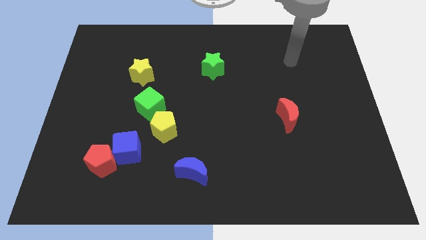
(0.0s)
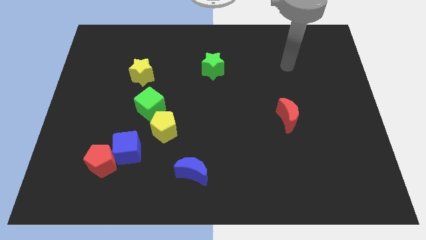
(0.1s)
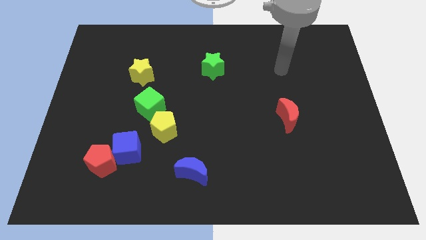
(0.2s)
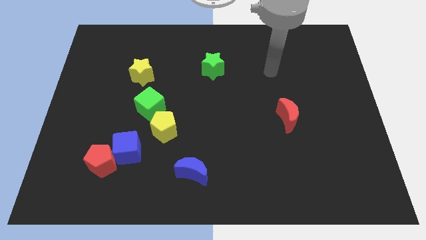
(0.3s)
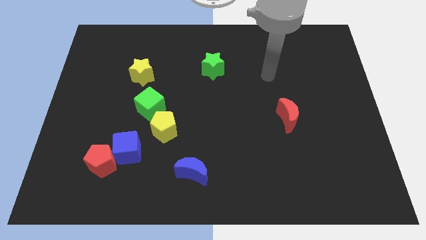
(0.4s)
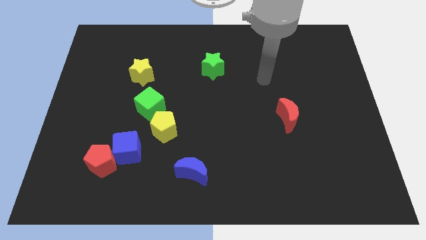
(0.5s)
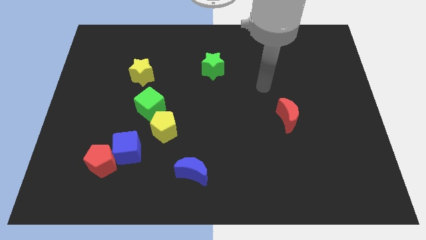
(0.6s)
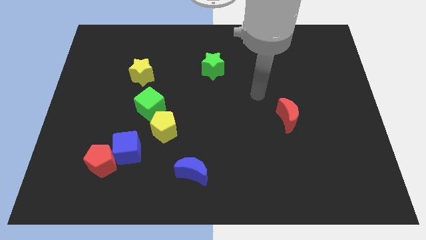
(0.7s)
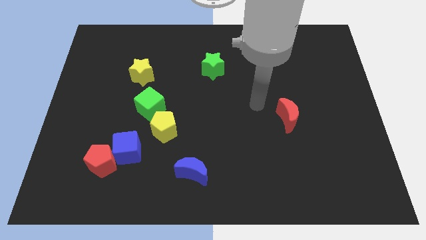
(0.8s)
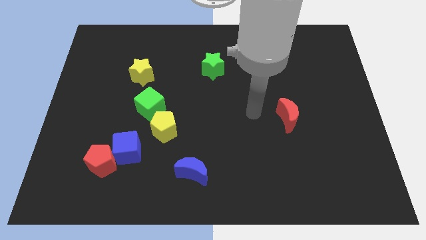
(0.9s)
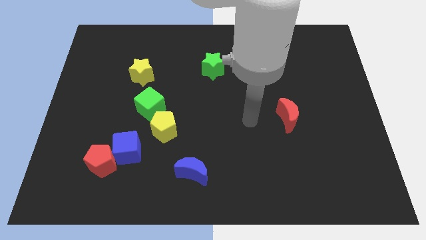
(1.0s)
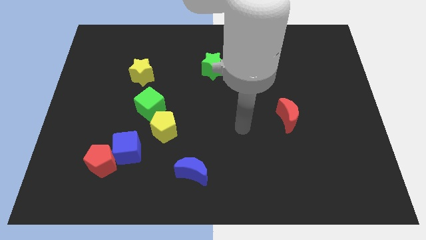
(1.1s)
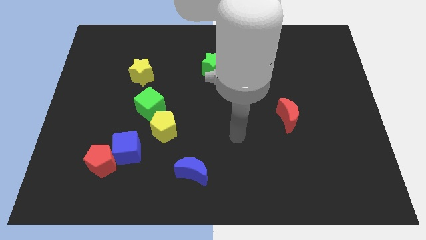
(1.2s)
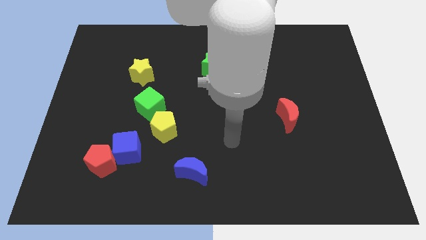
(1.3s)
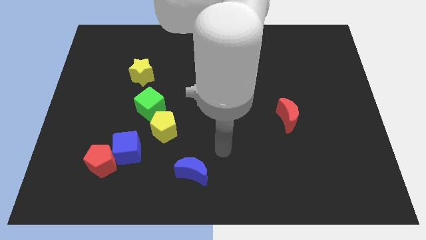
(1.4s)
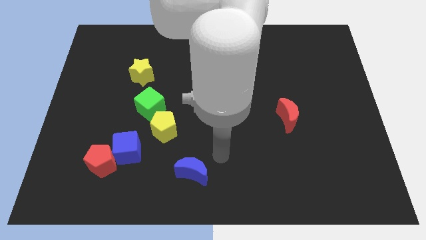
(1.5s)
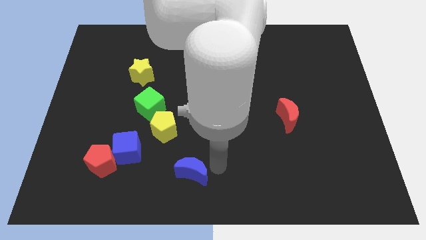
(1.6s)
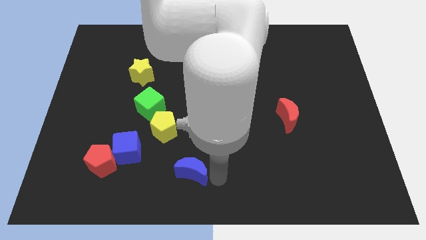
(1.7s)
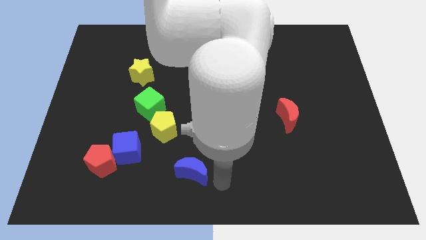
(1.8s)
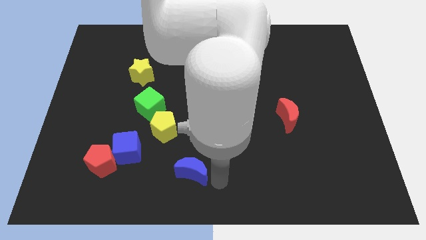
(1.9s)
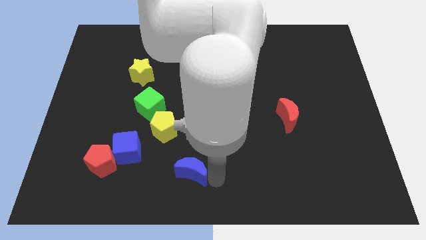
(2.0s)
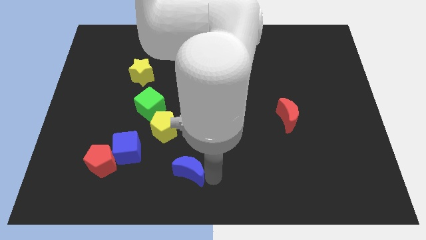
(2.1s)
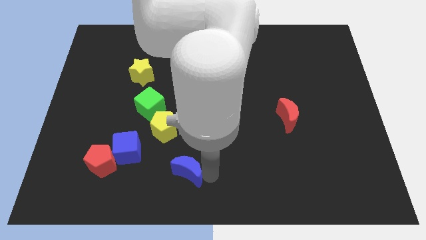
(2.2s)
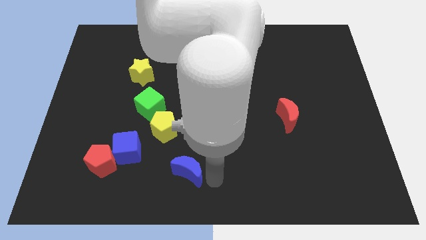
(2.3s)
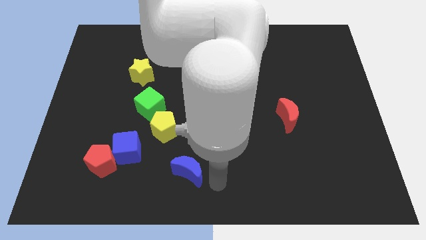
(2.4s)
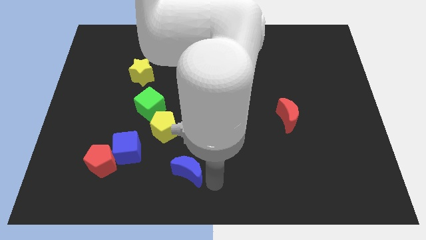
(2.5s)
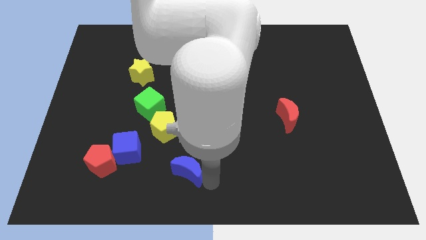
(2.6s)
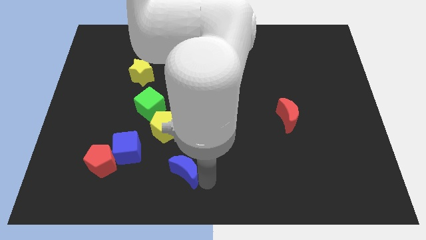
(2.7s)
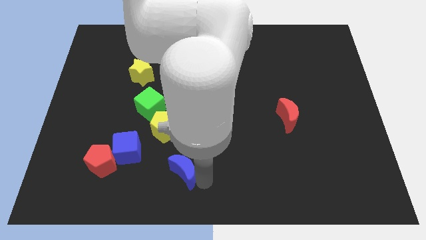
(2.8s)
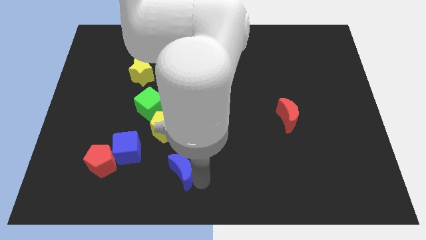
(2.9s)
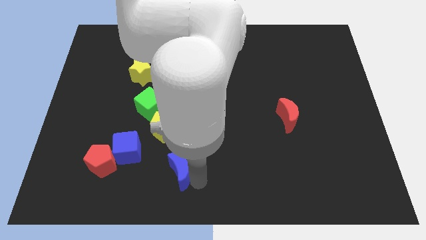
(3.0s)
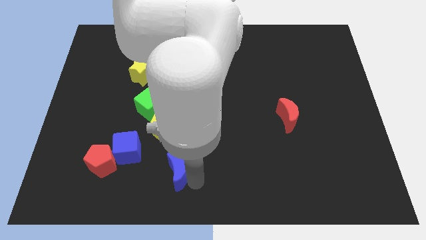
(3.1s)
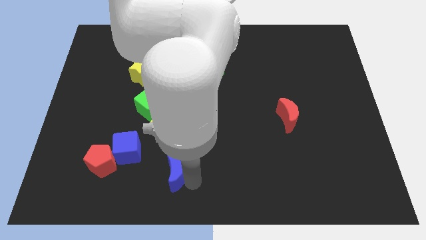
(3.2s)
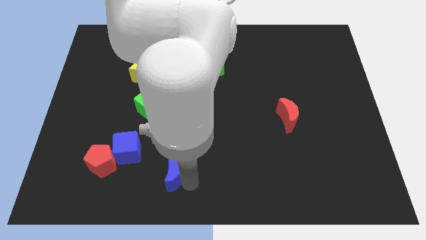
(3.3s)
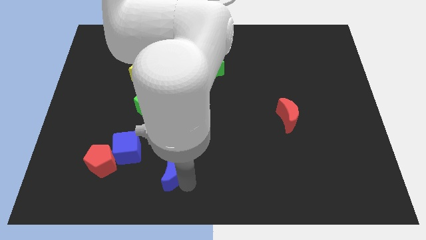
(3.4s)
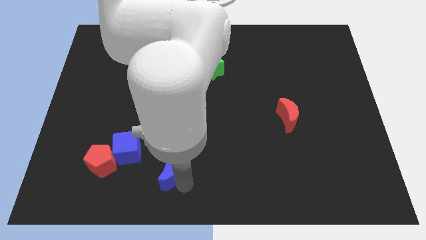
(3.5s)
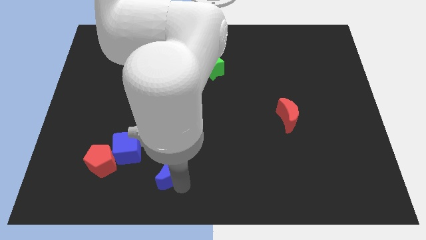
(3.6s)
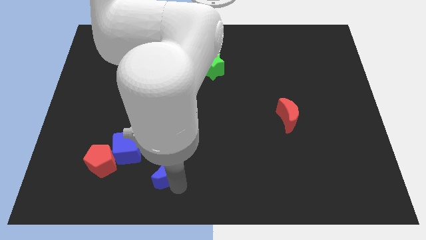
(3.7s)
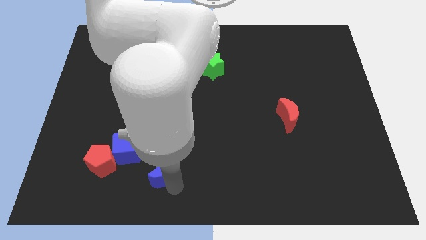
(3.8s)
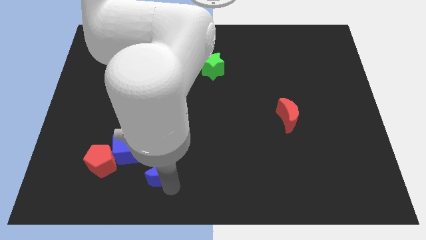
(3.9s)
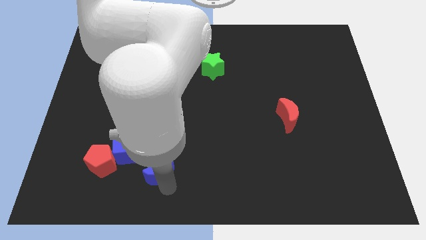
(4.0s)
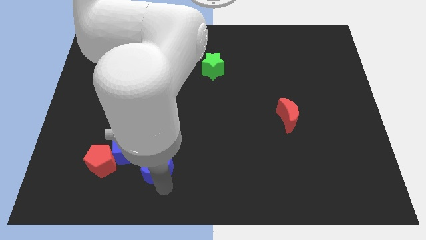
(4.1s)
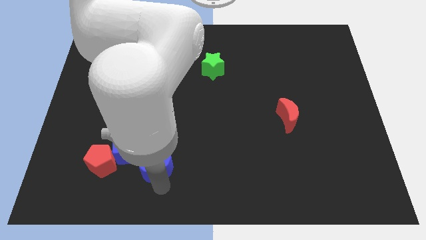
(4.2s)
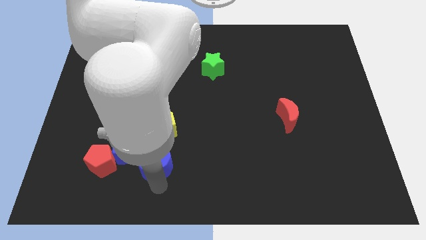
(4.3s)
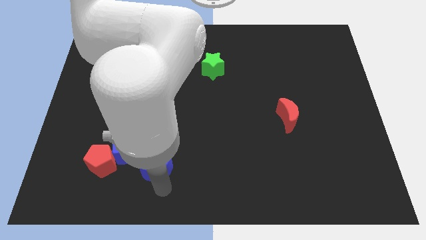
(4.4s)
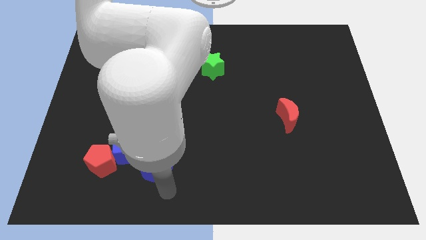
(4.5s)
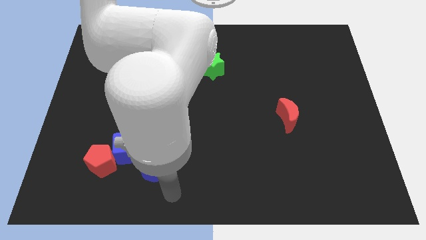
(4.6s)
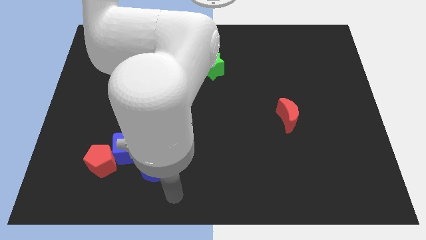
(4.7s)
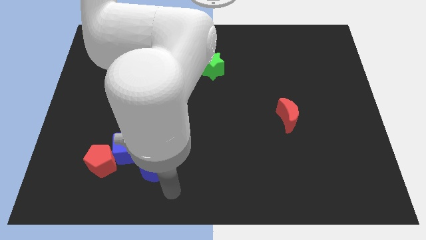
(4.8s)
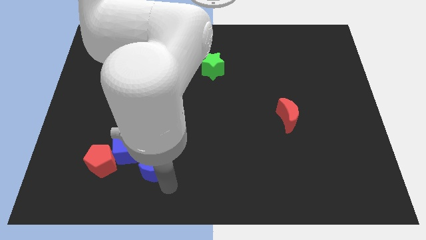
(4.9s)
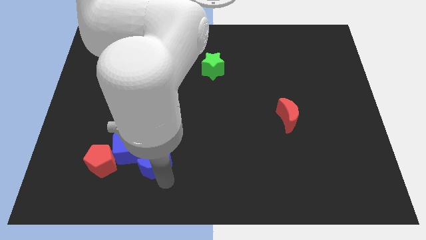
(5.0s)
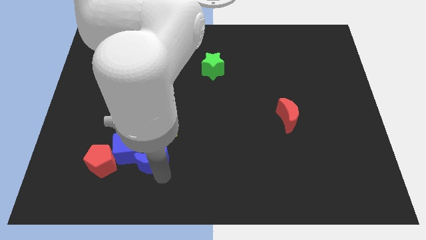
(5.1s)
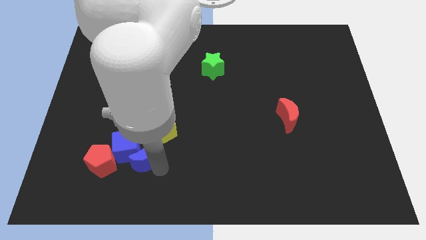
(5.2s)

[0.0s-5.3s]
push the blue moon next to the blue cube

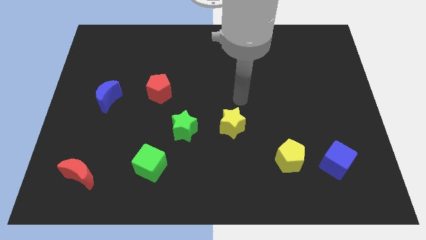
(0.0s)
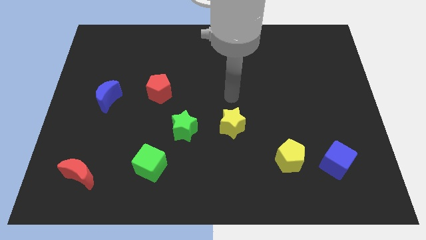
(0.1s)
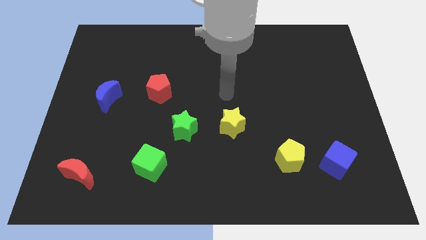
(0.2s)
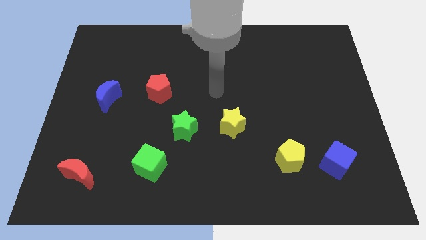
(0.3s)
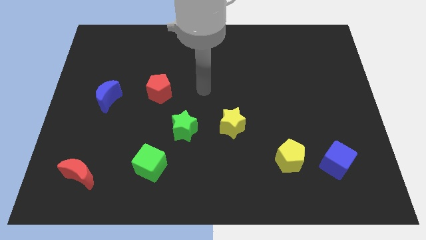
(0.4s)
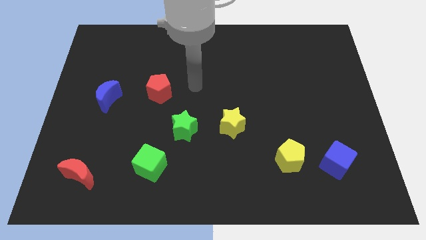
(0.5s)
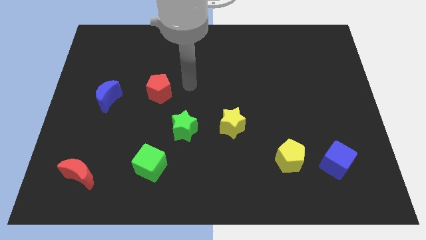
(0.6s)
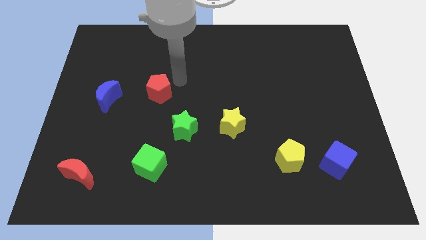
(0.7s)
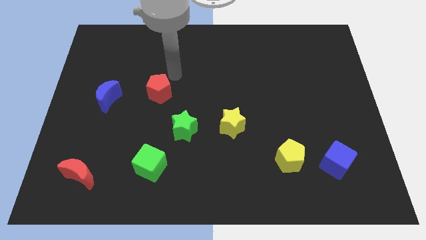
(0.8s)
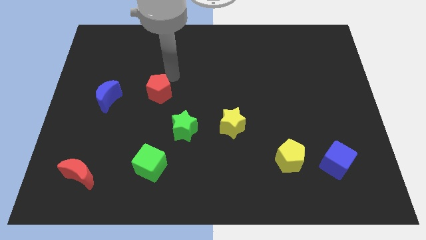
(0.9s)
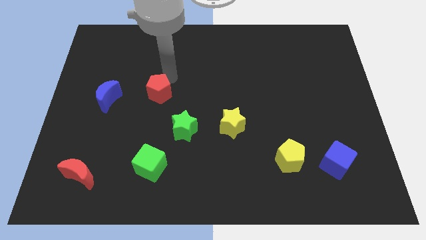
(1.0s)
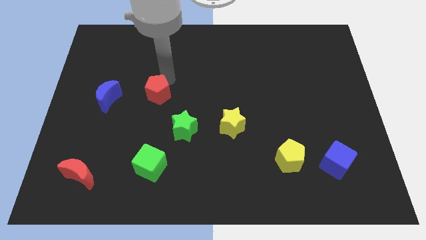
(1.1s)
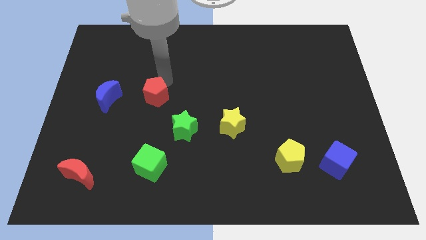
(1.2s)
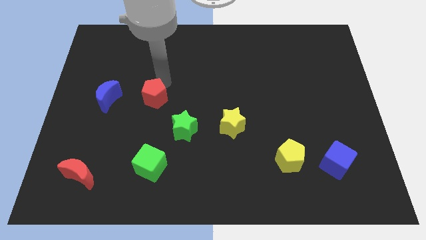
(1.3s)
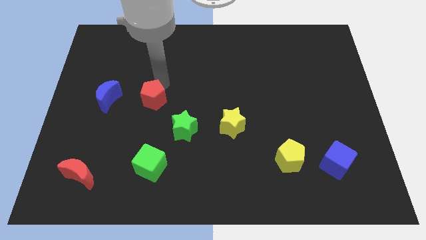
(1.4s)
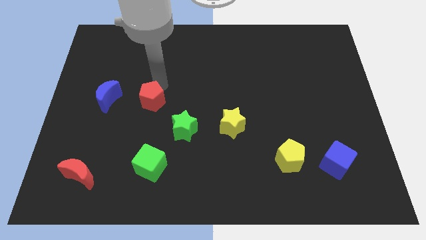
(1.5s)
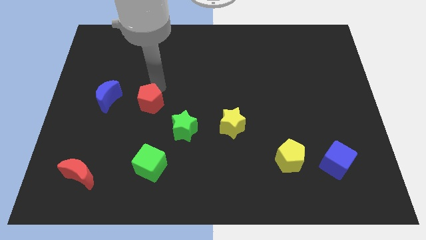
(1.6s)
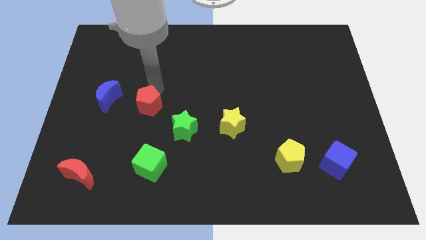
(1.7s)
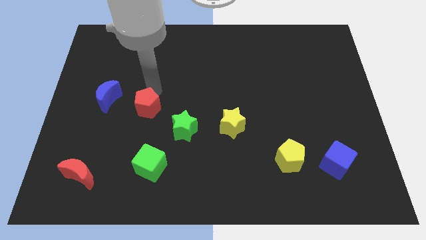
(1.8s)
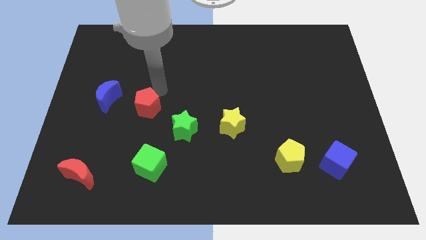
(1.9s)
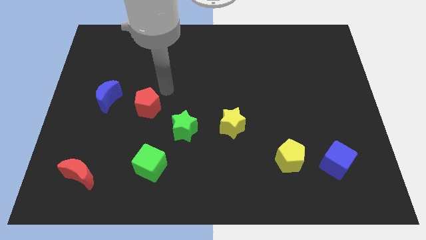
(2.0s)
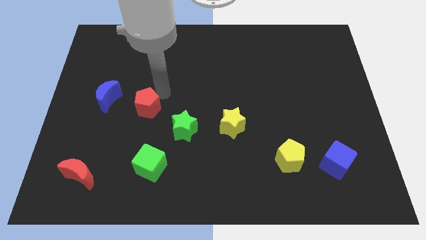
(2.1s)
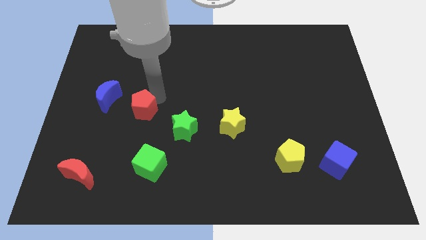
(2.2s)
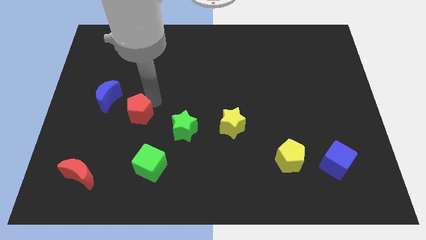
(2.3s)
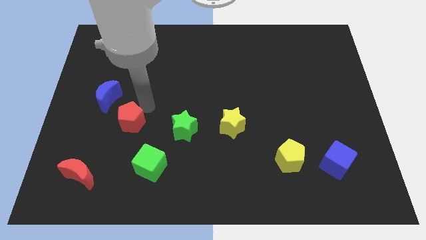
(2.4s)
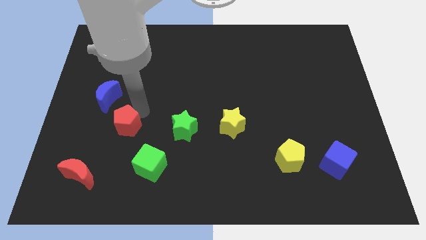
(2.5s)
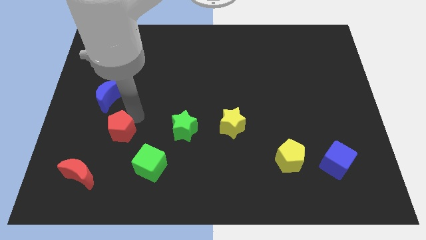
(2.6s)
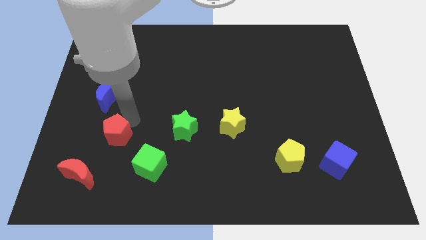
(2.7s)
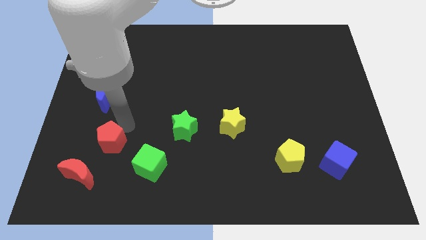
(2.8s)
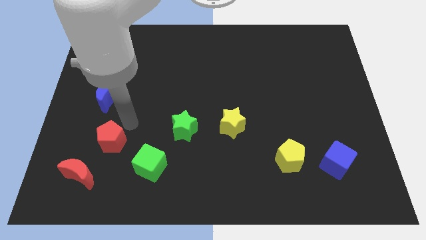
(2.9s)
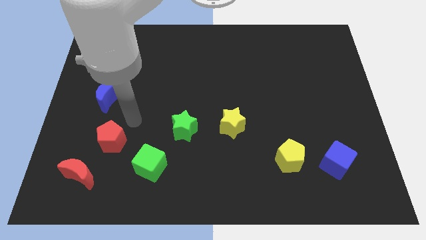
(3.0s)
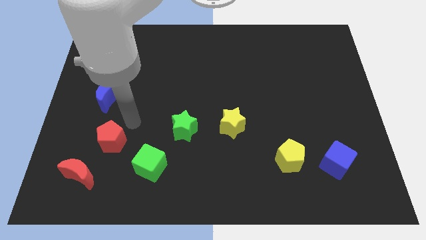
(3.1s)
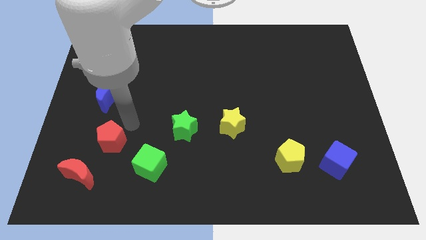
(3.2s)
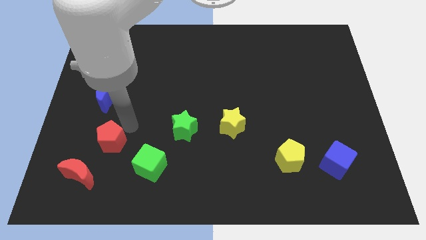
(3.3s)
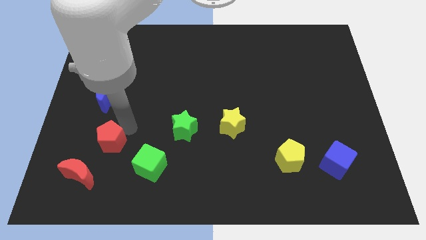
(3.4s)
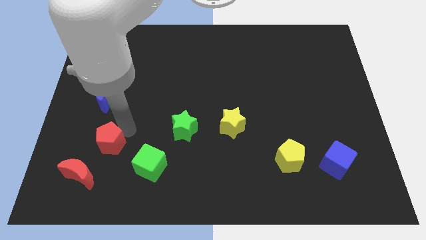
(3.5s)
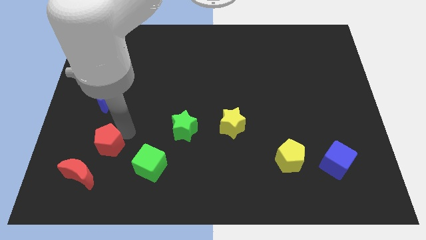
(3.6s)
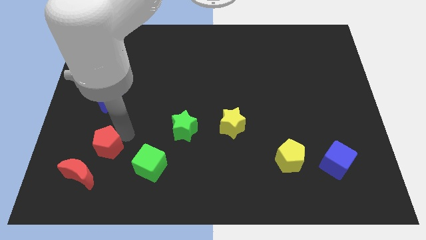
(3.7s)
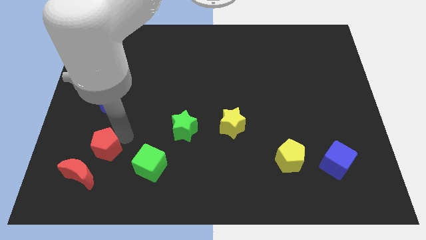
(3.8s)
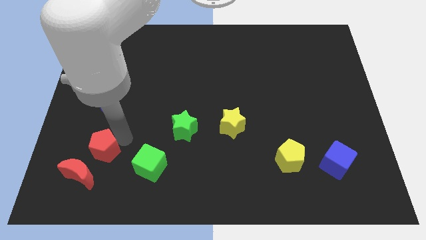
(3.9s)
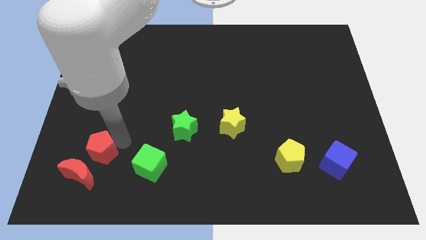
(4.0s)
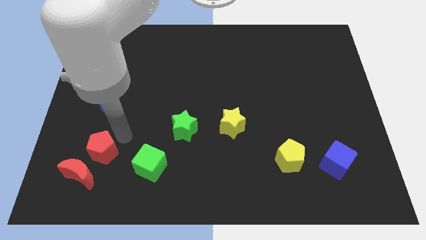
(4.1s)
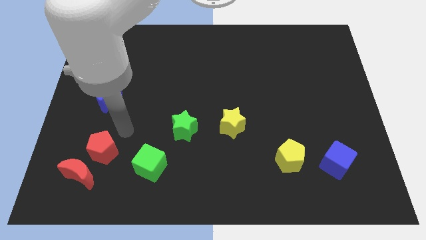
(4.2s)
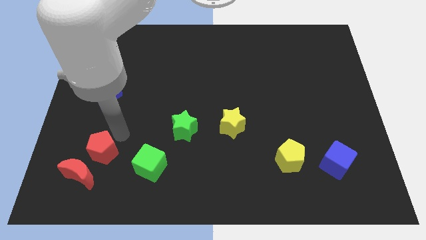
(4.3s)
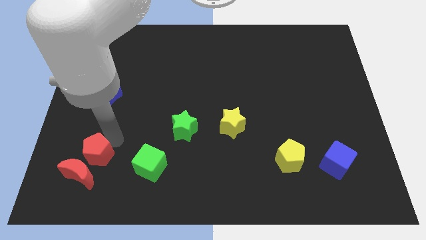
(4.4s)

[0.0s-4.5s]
push the red pentagon close to the red moon
